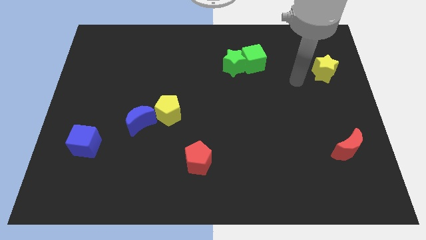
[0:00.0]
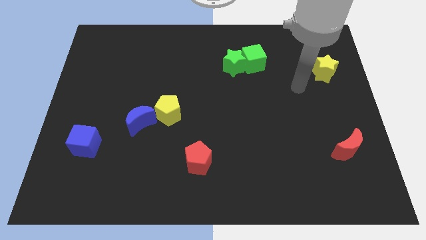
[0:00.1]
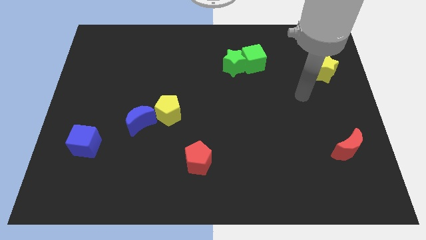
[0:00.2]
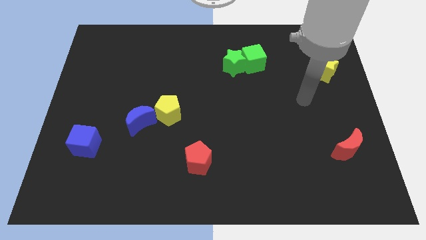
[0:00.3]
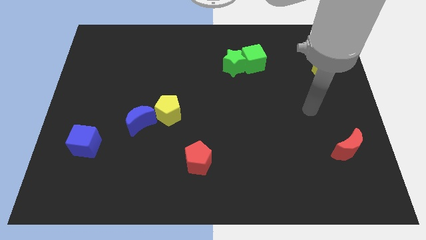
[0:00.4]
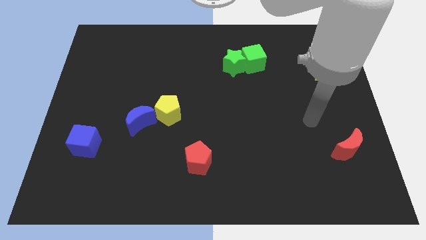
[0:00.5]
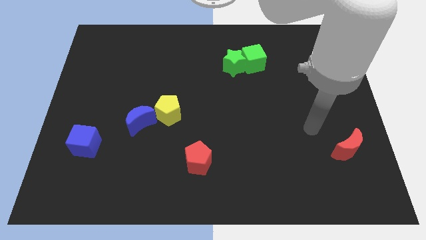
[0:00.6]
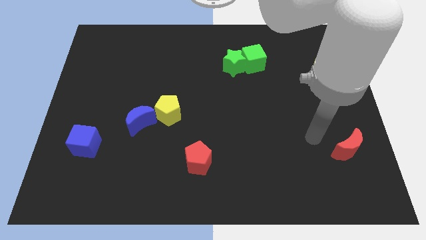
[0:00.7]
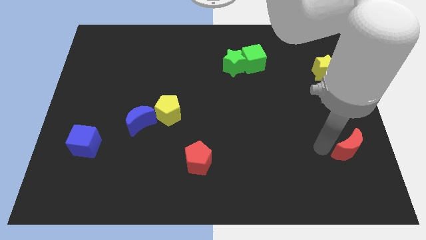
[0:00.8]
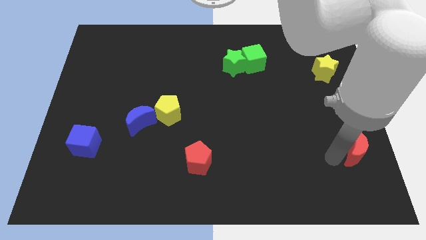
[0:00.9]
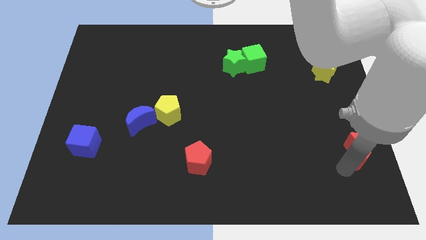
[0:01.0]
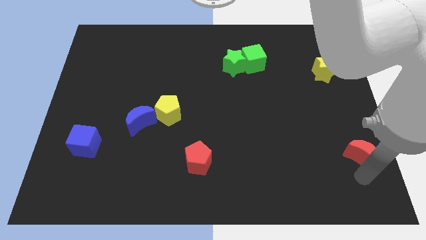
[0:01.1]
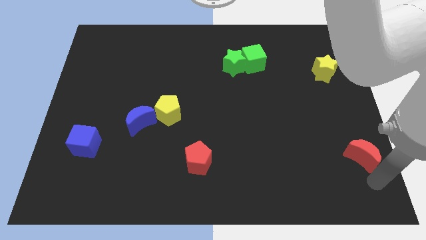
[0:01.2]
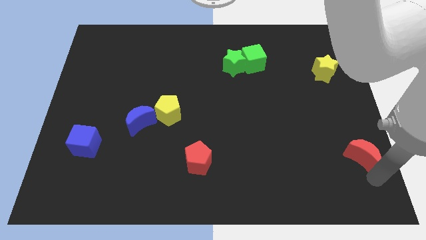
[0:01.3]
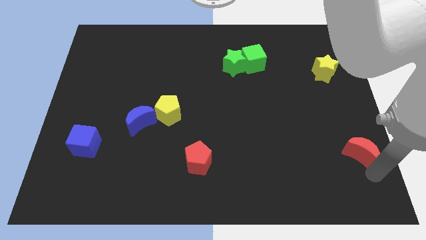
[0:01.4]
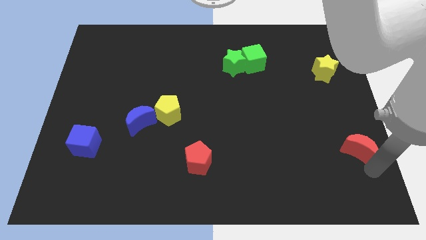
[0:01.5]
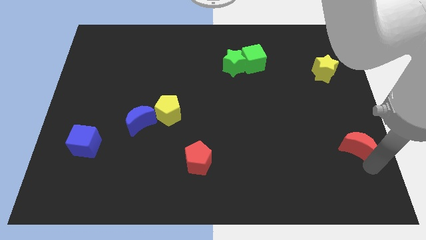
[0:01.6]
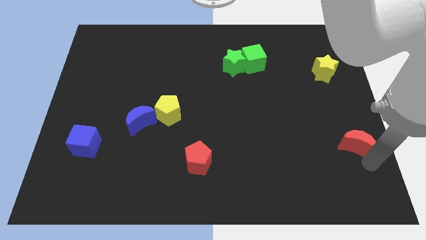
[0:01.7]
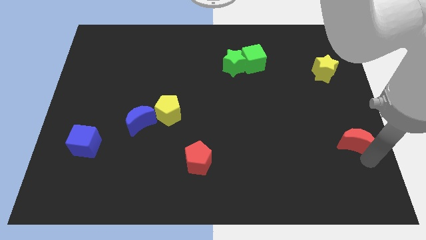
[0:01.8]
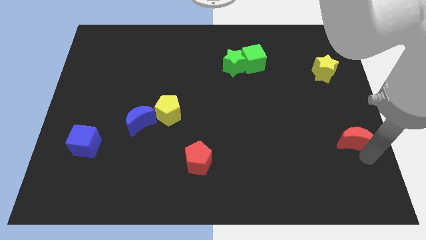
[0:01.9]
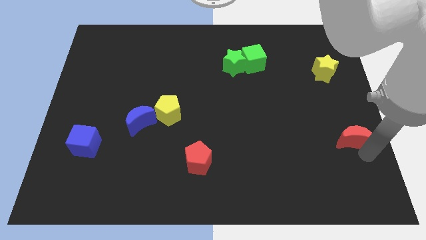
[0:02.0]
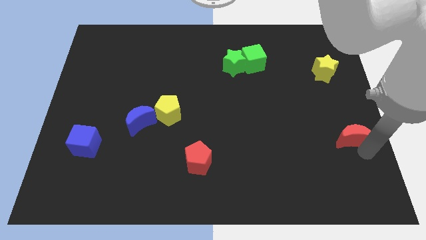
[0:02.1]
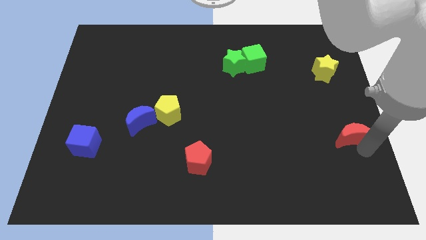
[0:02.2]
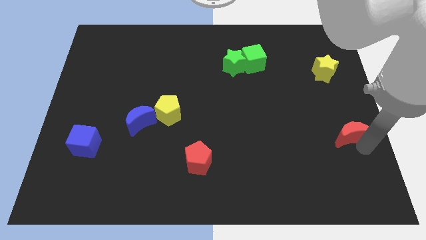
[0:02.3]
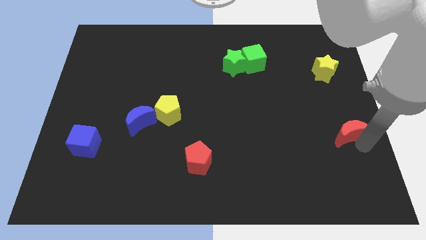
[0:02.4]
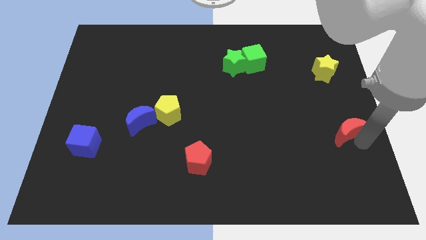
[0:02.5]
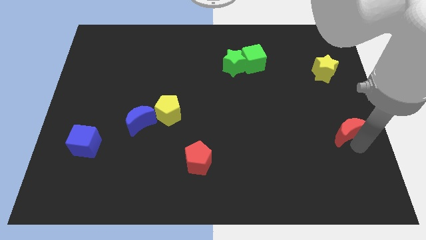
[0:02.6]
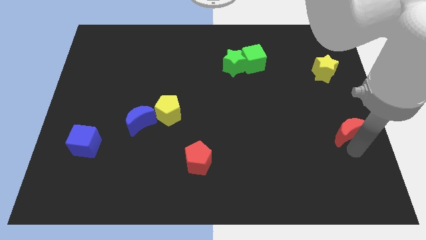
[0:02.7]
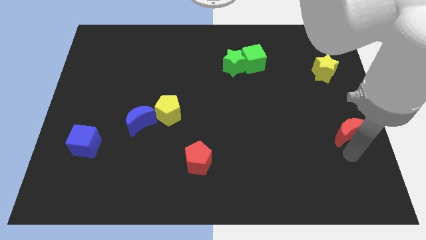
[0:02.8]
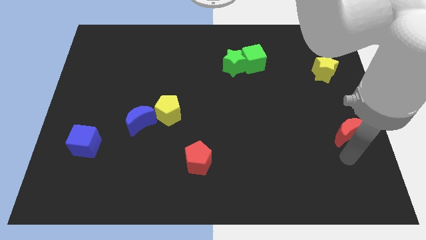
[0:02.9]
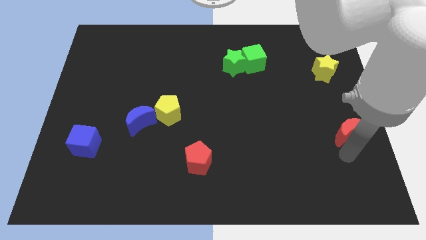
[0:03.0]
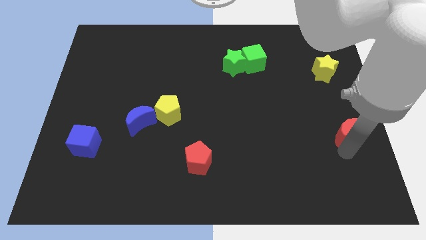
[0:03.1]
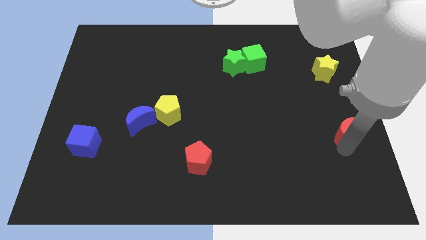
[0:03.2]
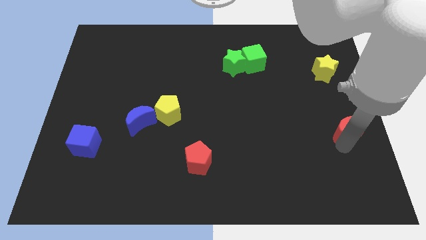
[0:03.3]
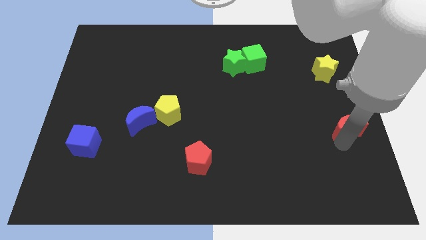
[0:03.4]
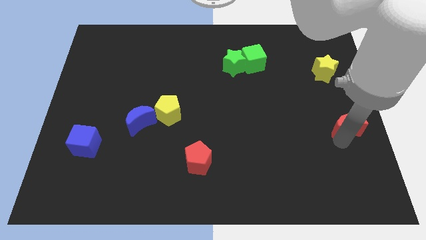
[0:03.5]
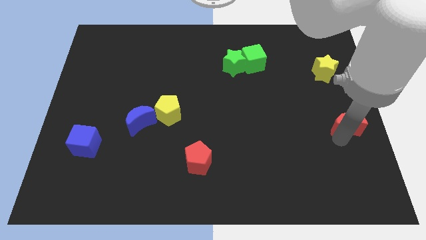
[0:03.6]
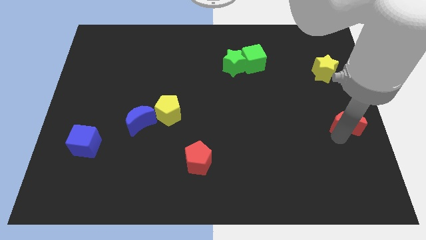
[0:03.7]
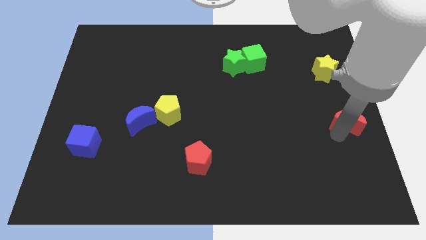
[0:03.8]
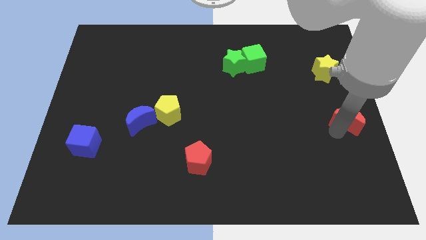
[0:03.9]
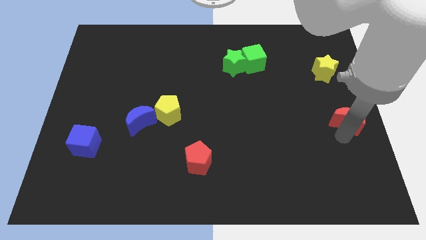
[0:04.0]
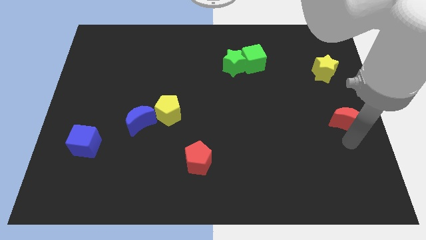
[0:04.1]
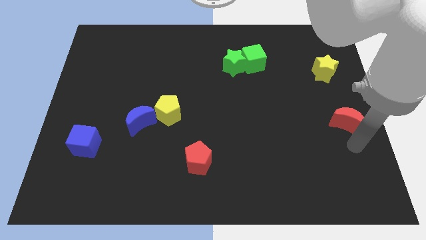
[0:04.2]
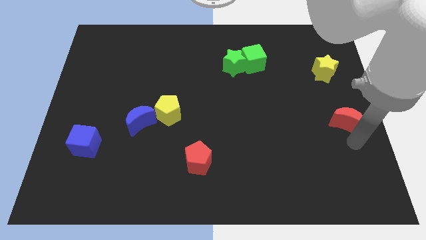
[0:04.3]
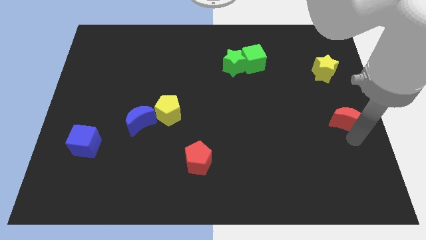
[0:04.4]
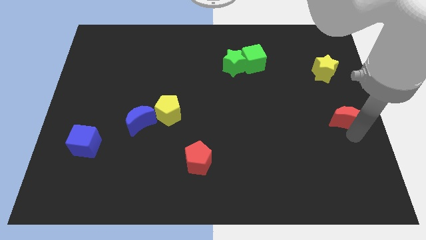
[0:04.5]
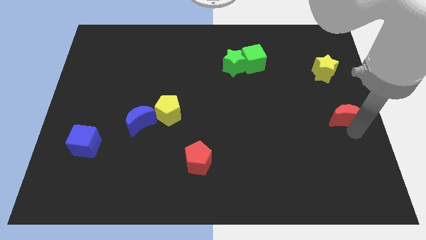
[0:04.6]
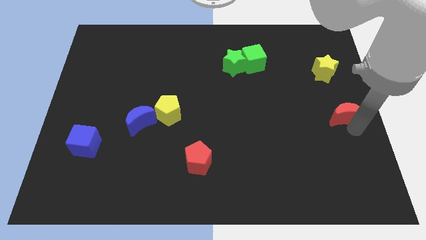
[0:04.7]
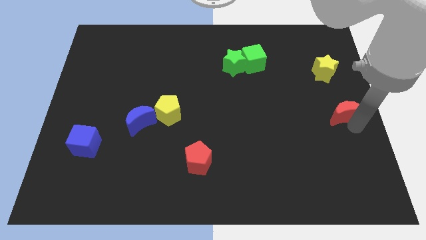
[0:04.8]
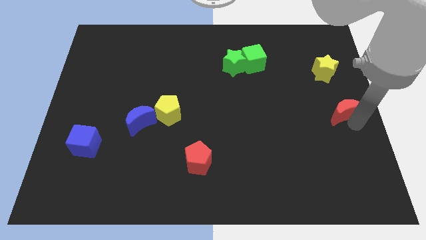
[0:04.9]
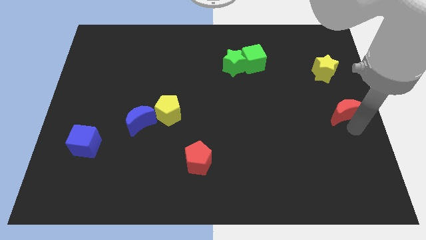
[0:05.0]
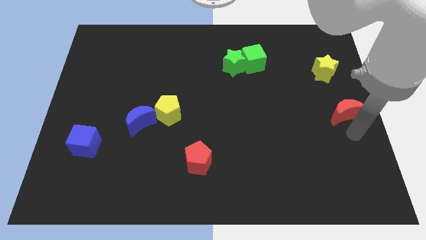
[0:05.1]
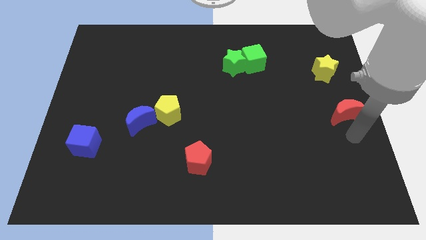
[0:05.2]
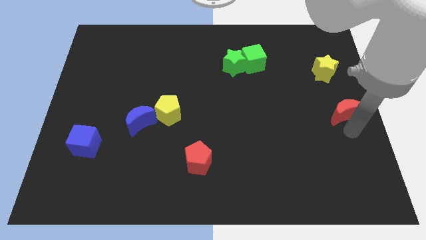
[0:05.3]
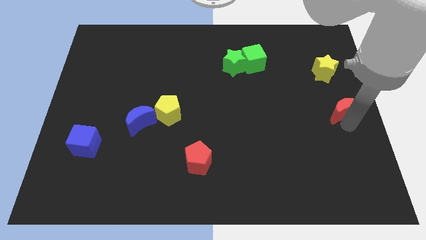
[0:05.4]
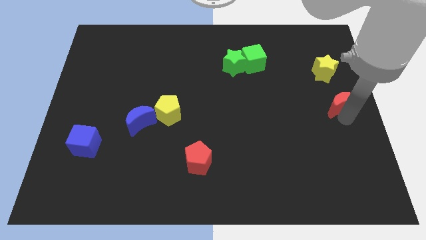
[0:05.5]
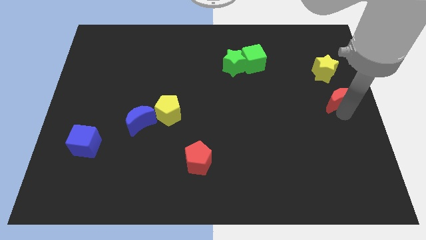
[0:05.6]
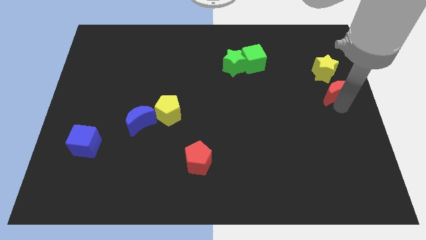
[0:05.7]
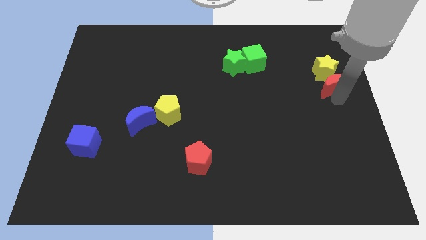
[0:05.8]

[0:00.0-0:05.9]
move the red moon close to the yellow star

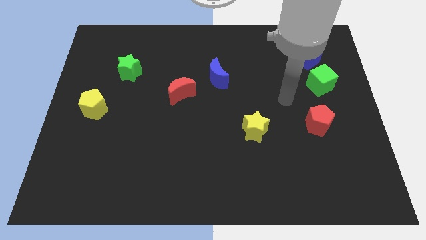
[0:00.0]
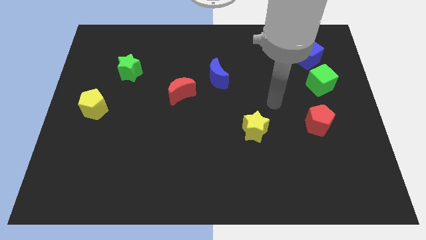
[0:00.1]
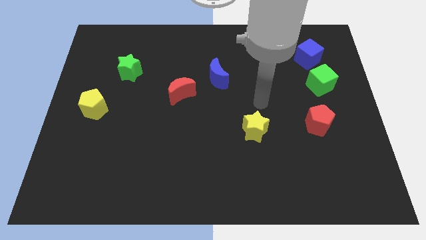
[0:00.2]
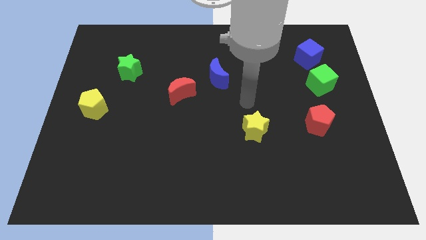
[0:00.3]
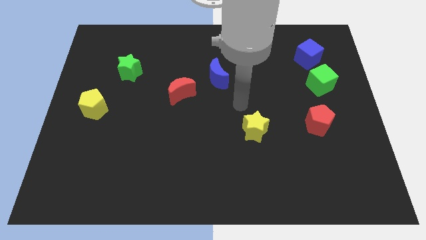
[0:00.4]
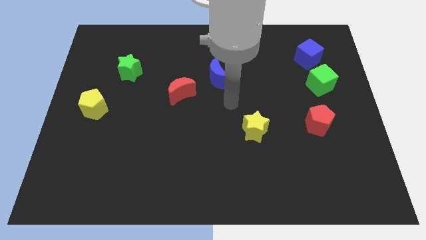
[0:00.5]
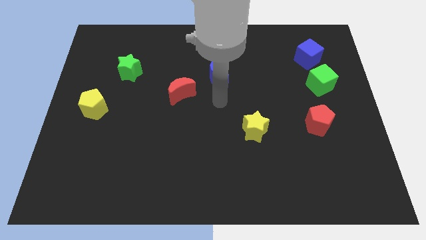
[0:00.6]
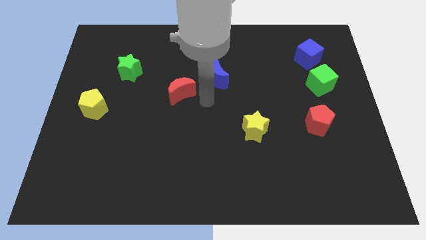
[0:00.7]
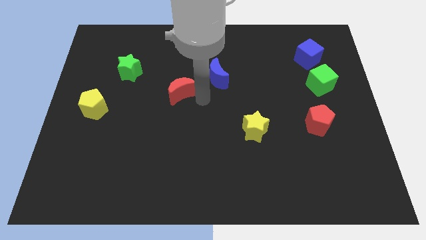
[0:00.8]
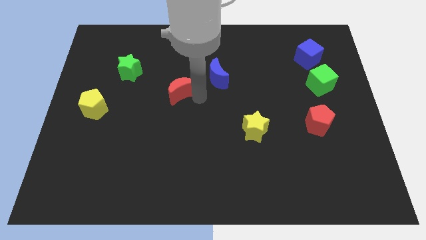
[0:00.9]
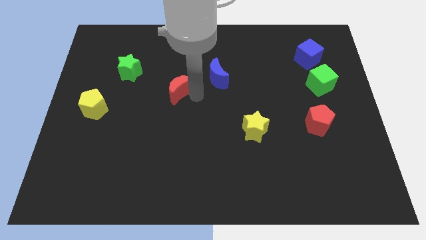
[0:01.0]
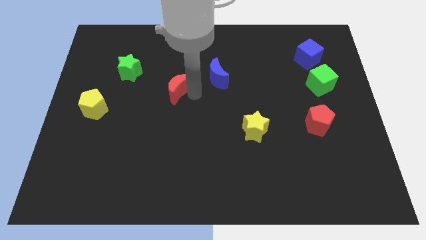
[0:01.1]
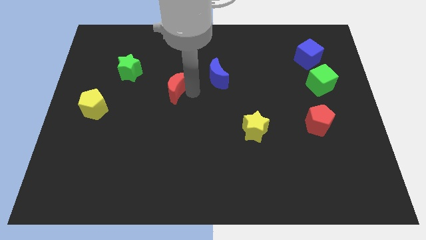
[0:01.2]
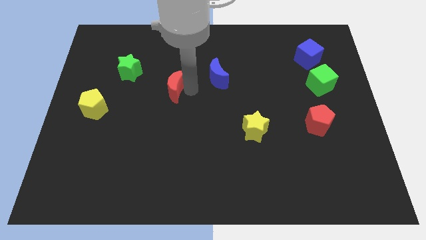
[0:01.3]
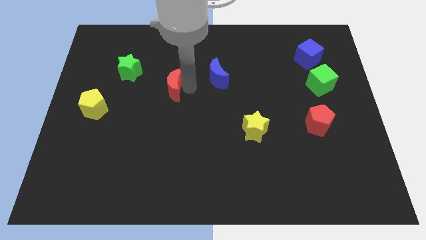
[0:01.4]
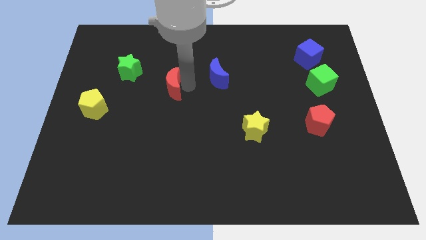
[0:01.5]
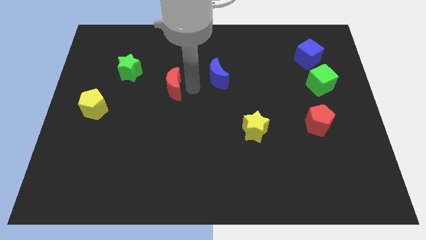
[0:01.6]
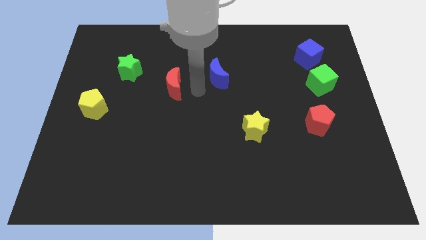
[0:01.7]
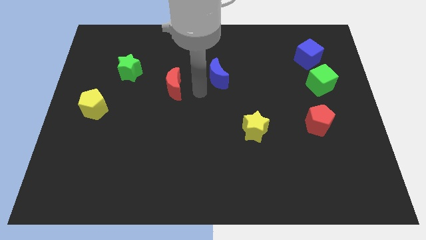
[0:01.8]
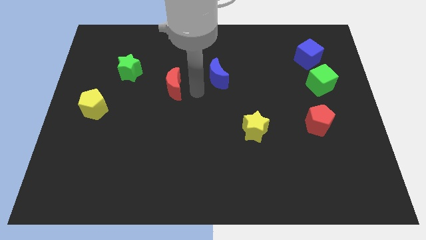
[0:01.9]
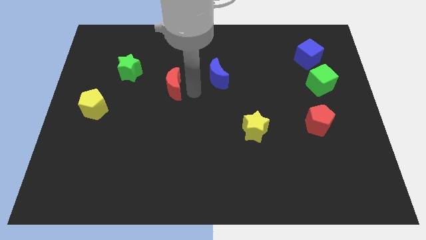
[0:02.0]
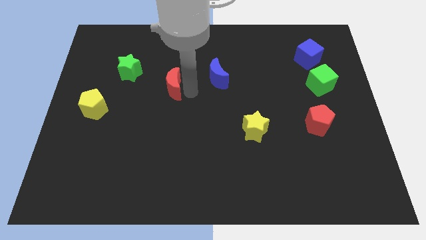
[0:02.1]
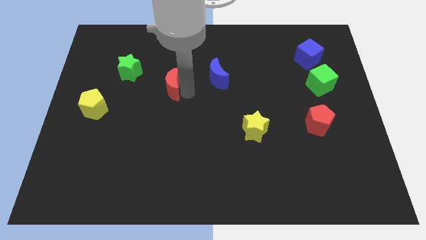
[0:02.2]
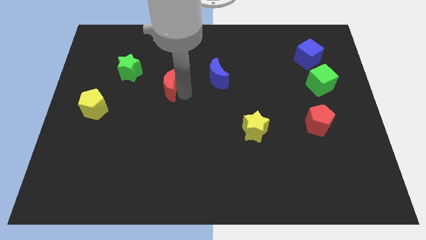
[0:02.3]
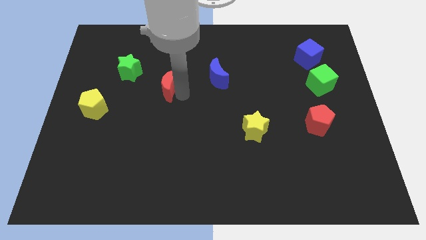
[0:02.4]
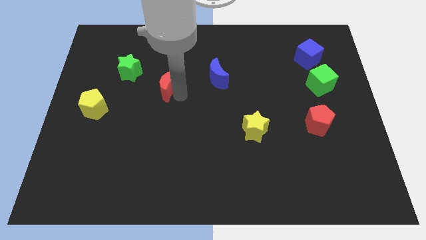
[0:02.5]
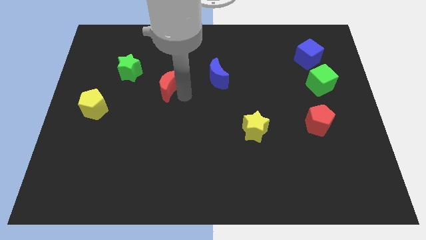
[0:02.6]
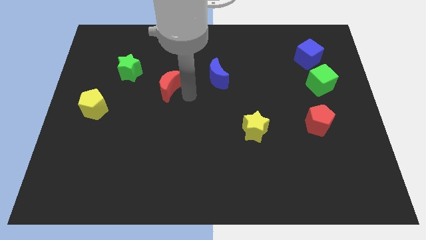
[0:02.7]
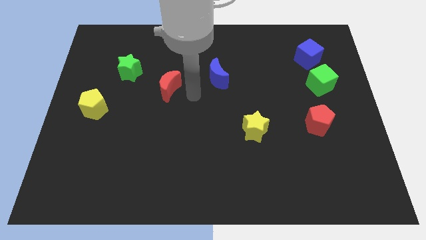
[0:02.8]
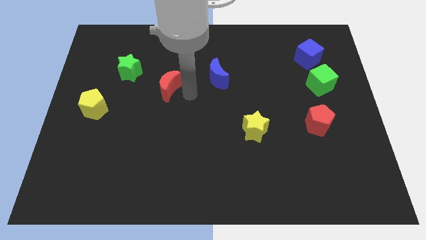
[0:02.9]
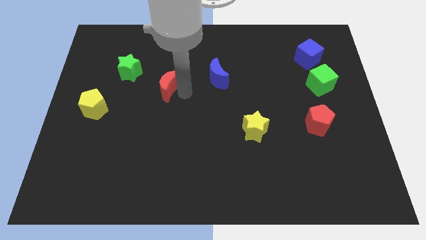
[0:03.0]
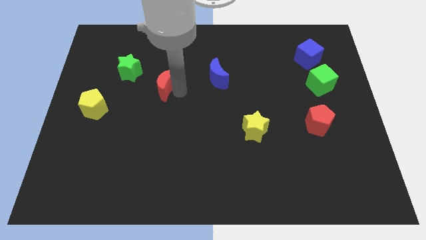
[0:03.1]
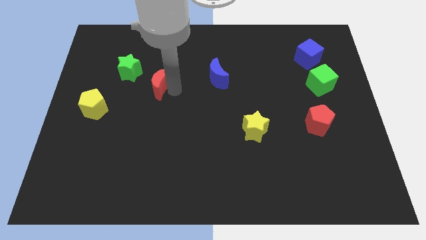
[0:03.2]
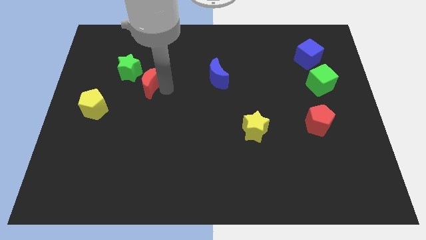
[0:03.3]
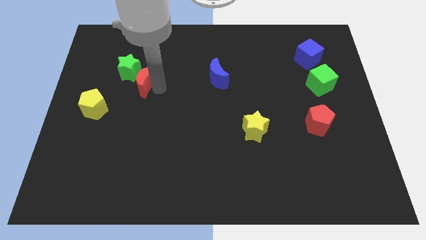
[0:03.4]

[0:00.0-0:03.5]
push the red moon close to the green star
